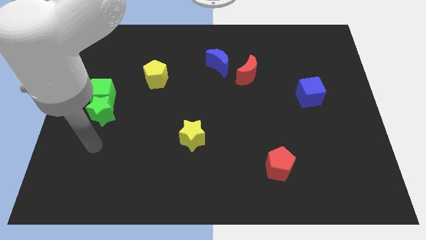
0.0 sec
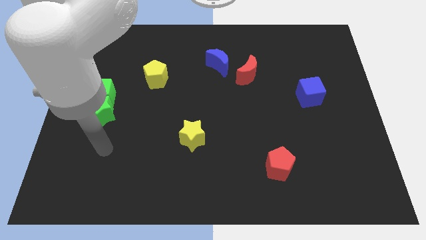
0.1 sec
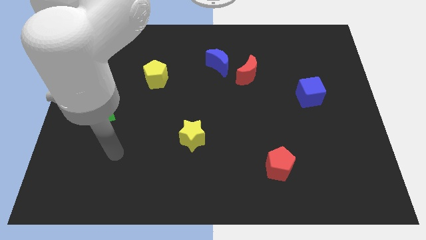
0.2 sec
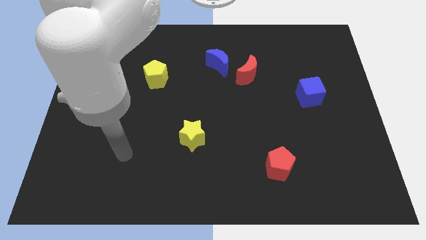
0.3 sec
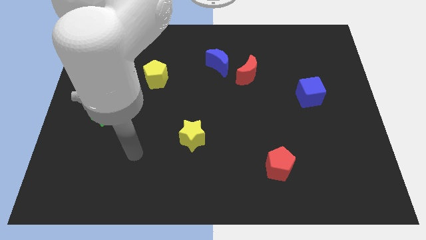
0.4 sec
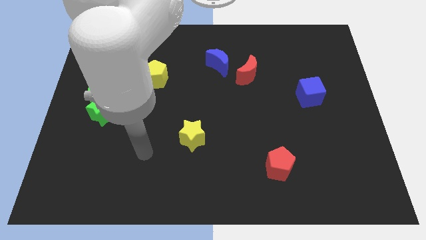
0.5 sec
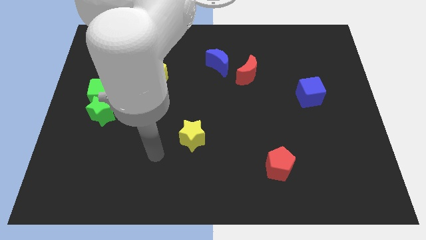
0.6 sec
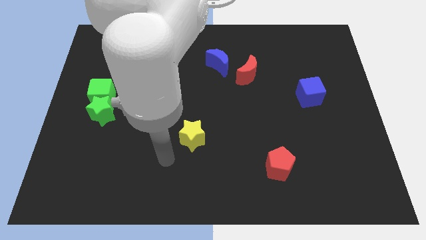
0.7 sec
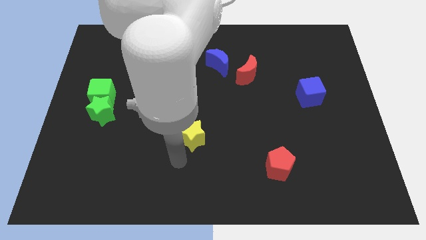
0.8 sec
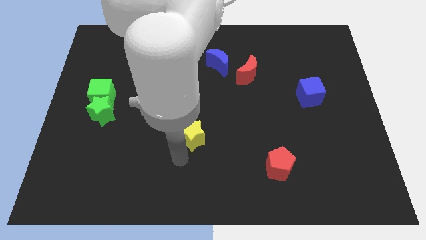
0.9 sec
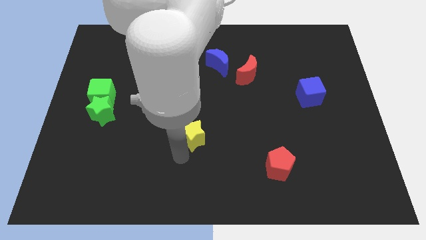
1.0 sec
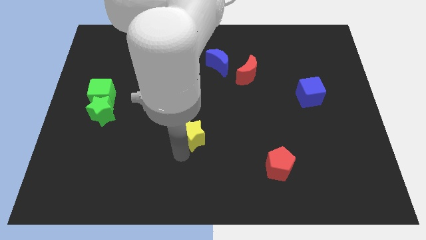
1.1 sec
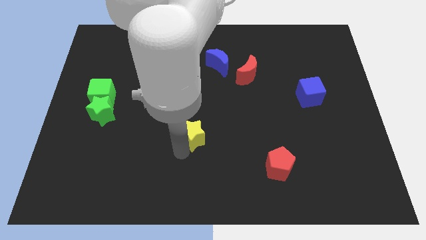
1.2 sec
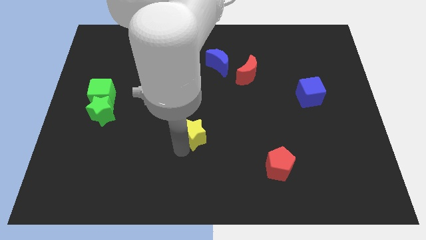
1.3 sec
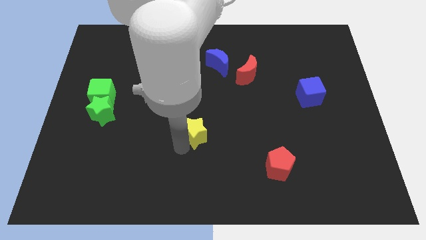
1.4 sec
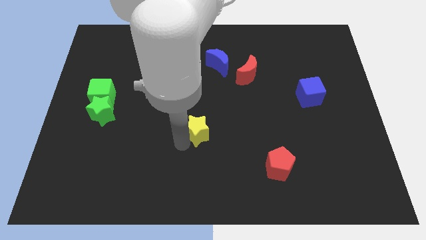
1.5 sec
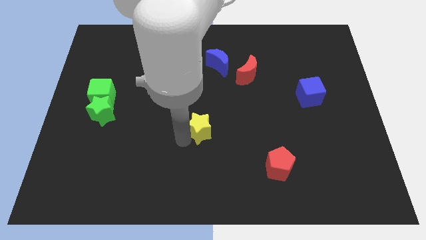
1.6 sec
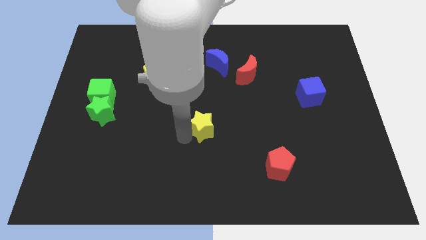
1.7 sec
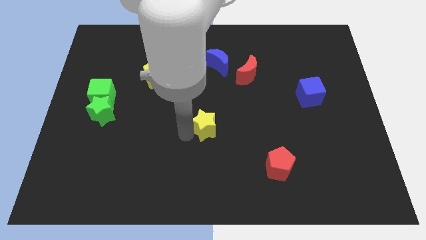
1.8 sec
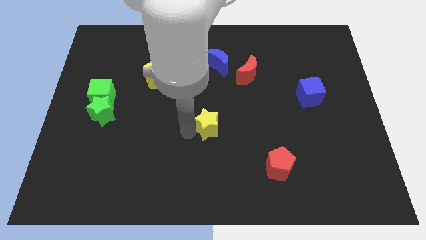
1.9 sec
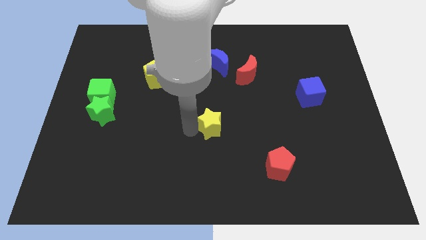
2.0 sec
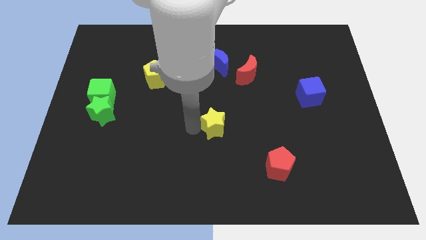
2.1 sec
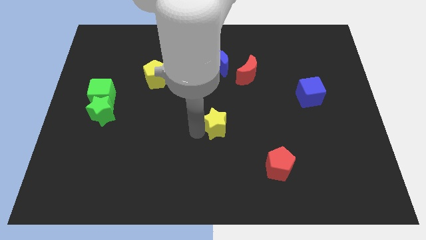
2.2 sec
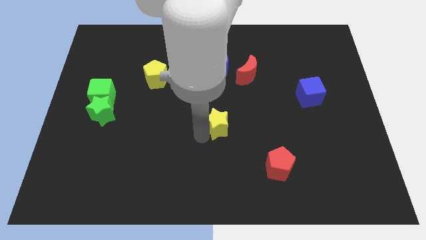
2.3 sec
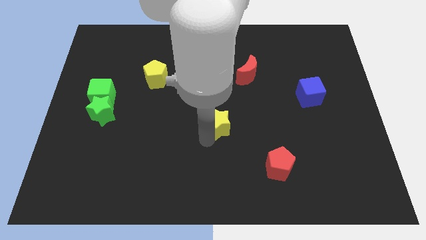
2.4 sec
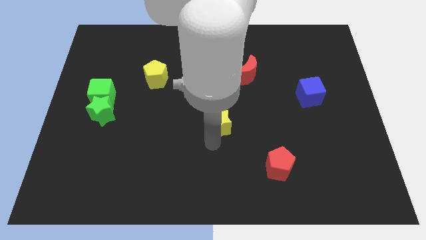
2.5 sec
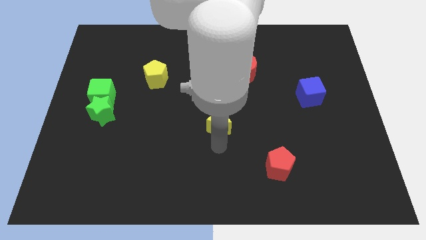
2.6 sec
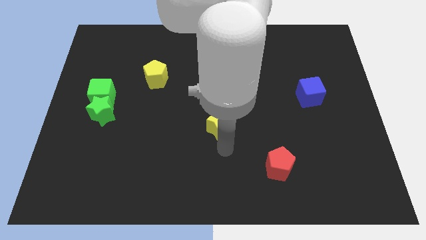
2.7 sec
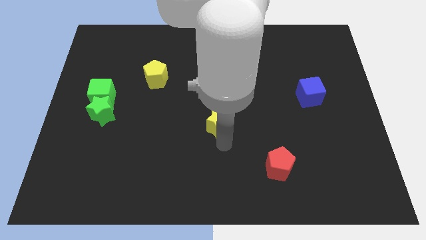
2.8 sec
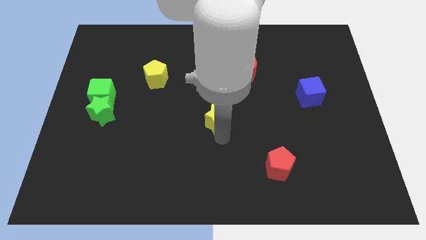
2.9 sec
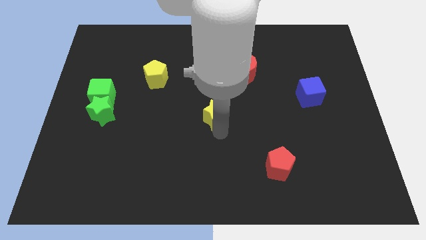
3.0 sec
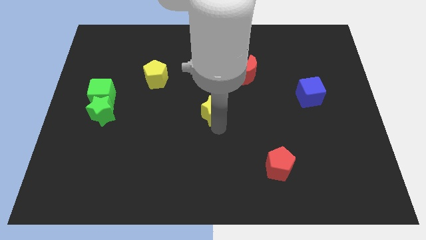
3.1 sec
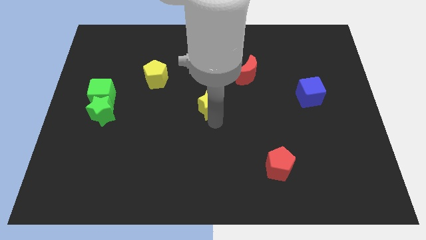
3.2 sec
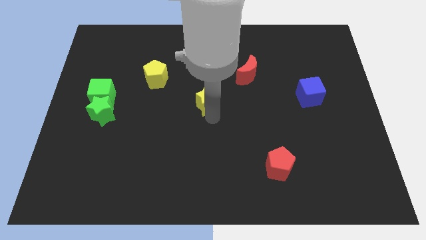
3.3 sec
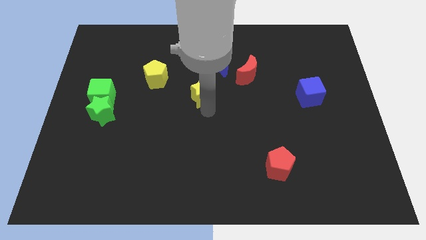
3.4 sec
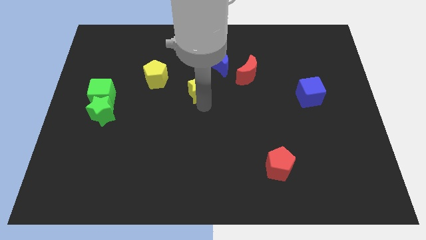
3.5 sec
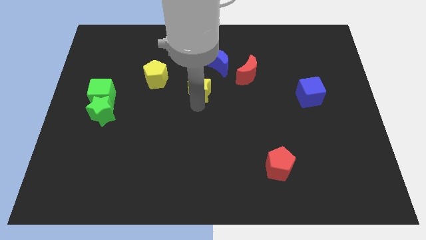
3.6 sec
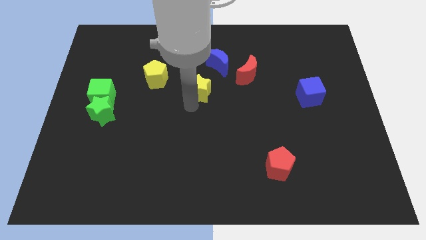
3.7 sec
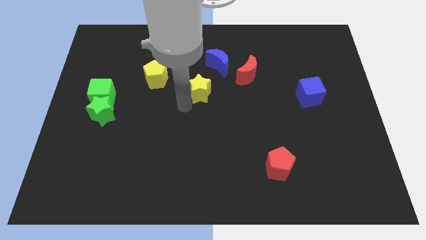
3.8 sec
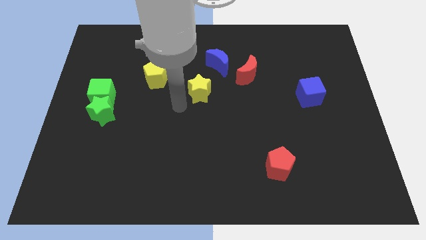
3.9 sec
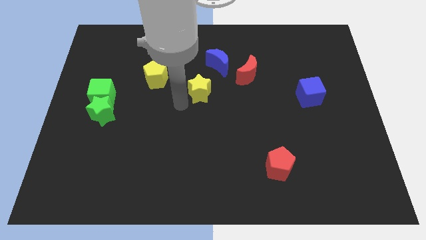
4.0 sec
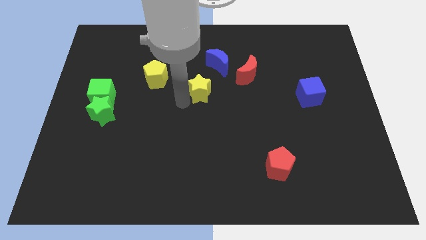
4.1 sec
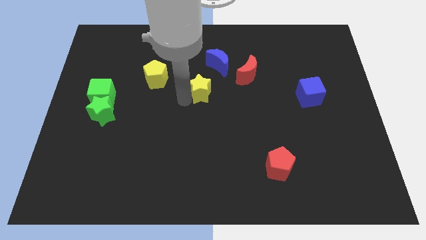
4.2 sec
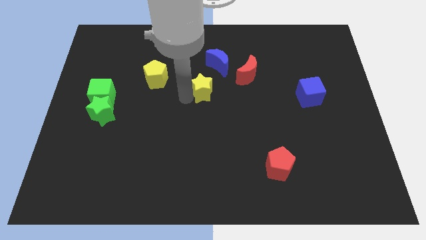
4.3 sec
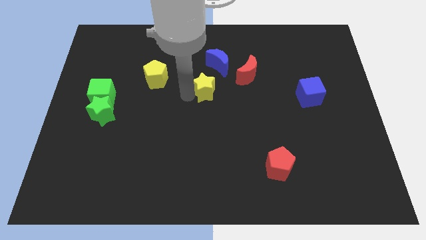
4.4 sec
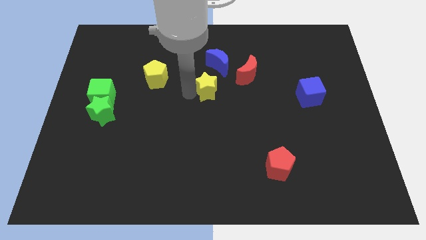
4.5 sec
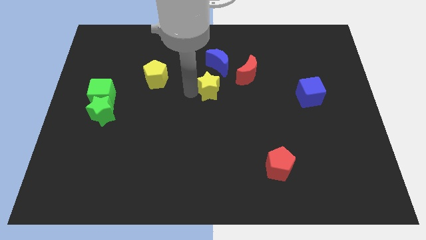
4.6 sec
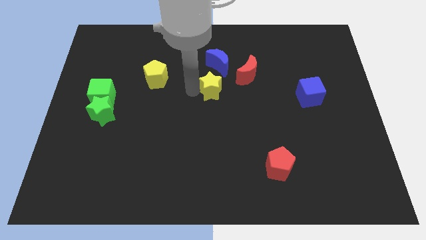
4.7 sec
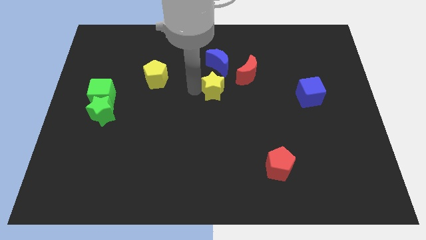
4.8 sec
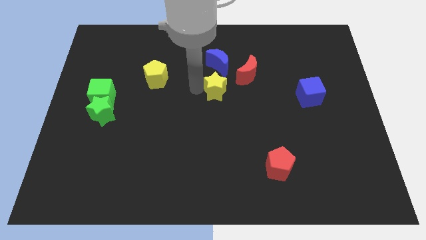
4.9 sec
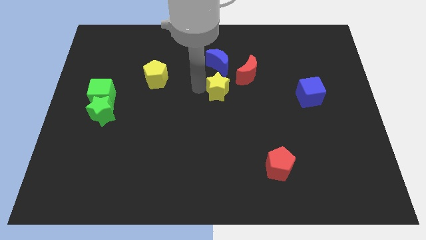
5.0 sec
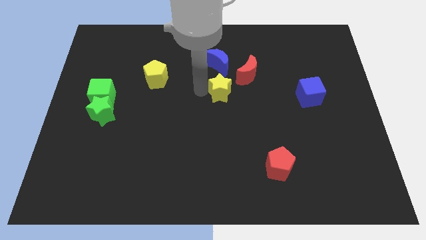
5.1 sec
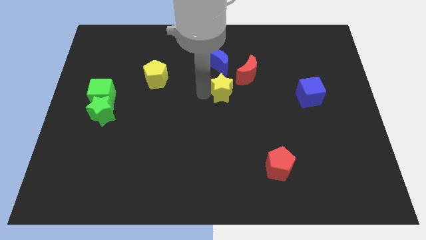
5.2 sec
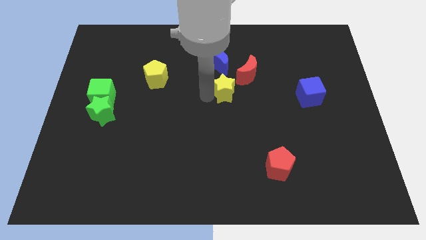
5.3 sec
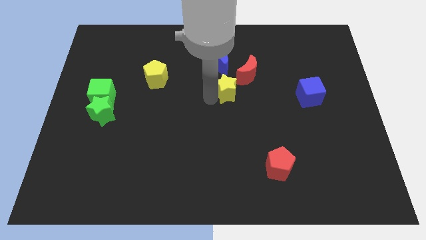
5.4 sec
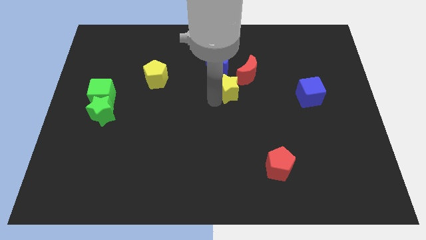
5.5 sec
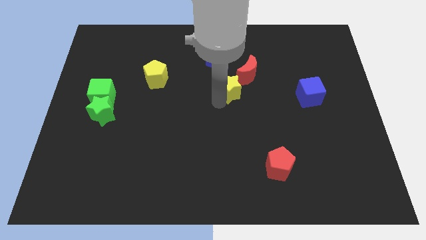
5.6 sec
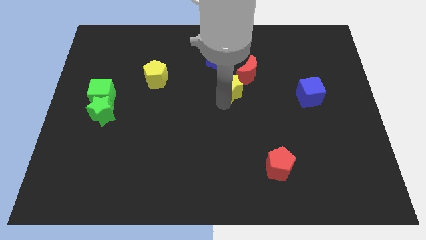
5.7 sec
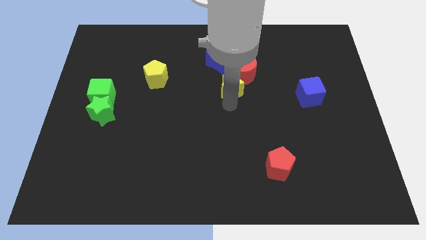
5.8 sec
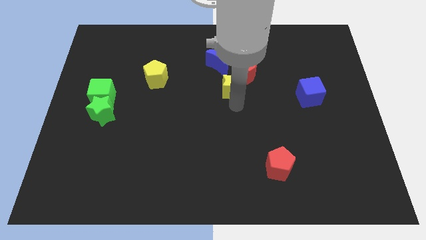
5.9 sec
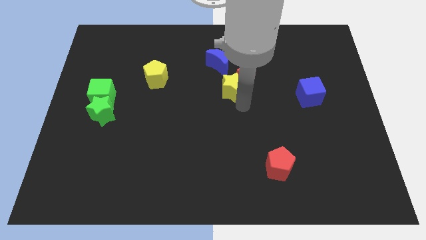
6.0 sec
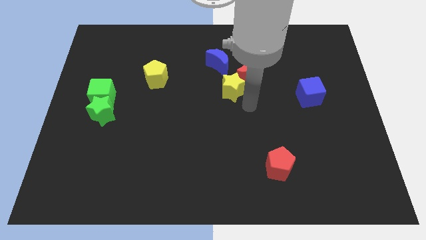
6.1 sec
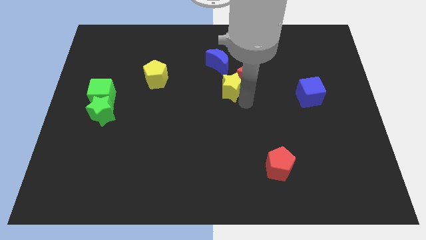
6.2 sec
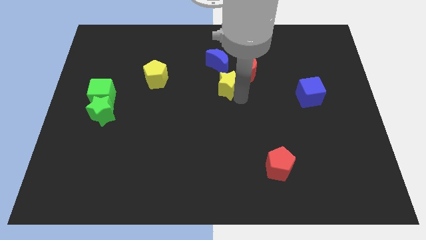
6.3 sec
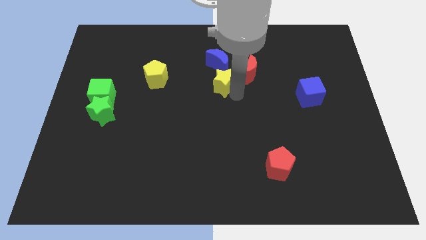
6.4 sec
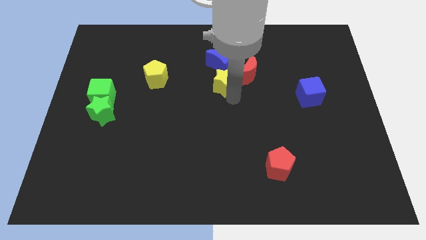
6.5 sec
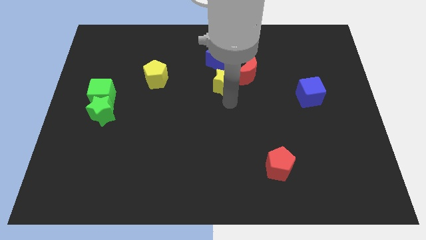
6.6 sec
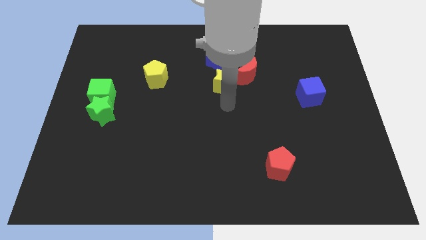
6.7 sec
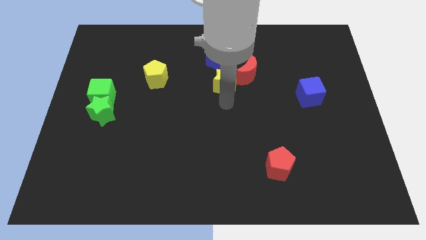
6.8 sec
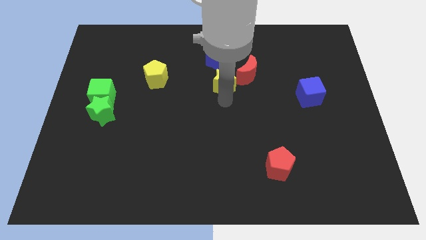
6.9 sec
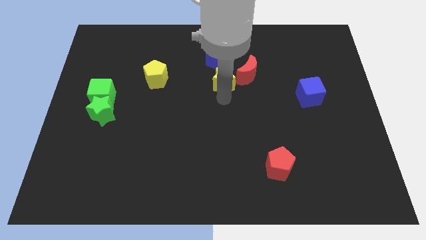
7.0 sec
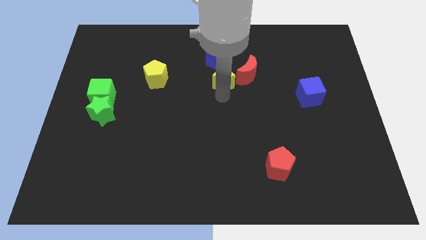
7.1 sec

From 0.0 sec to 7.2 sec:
put the yellow star towards the blue moon

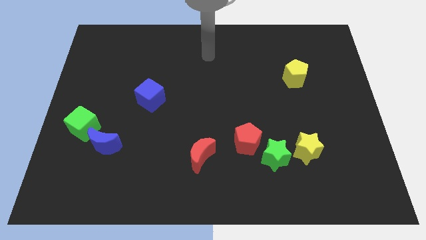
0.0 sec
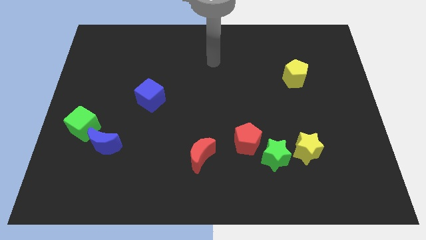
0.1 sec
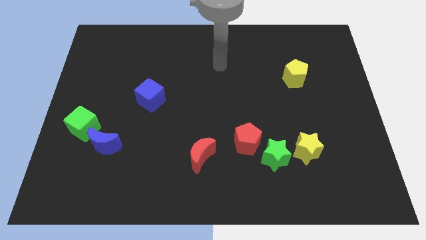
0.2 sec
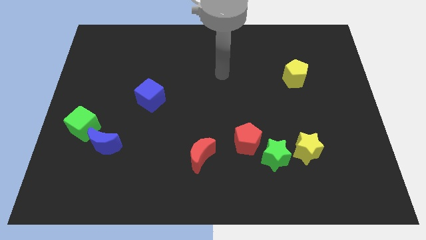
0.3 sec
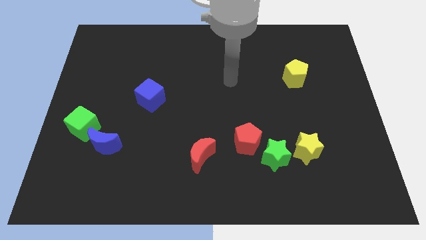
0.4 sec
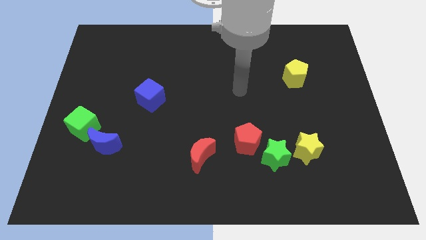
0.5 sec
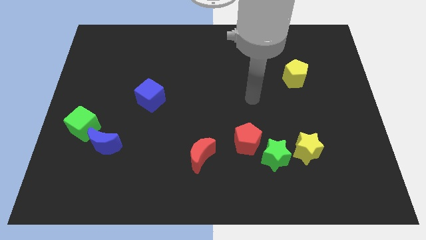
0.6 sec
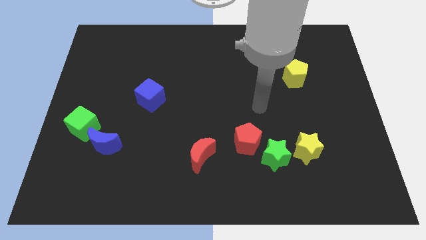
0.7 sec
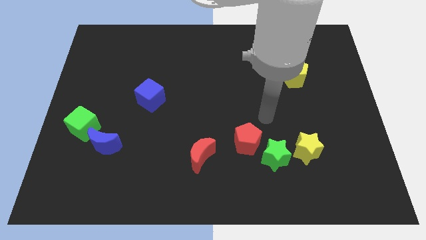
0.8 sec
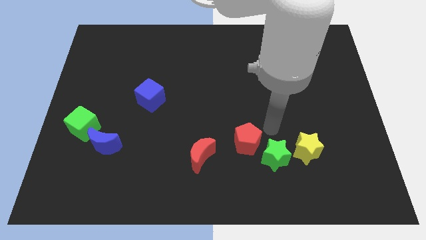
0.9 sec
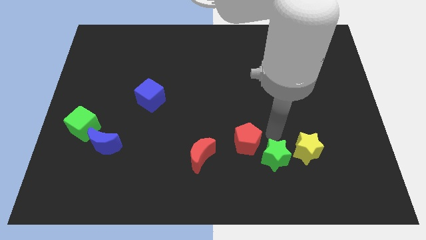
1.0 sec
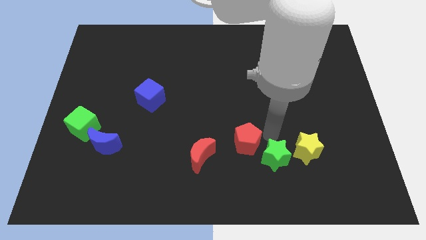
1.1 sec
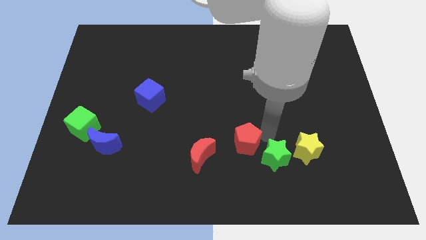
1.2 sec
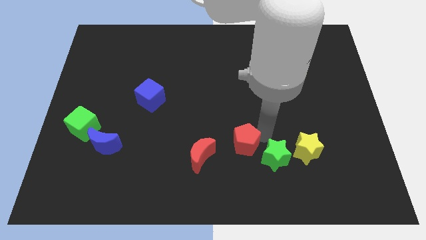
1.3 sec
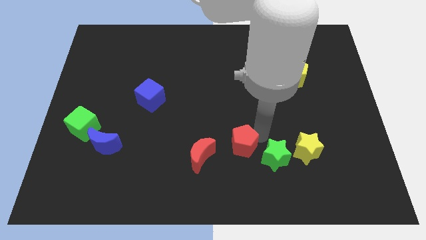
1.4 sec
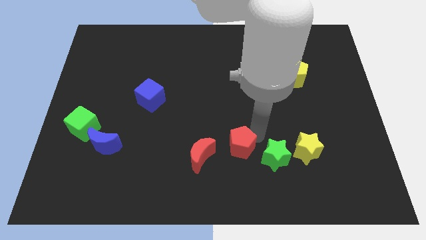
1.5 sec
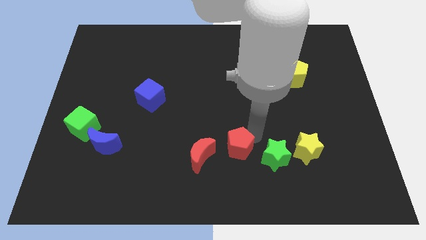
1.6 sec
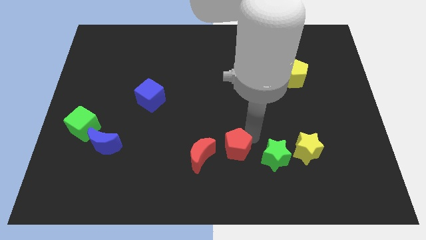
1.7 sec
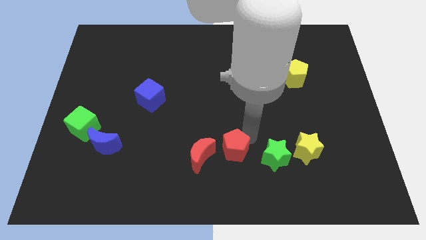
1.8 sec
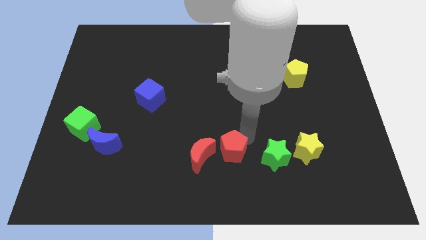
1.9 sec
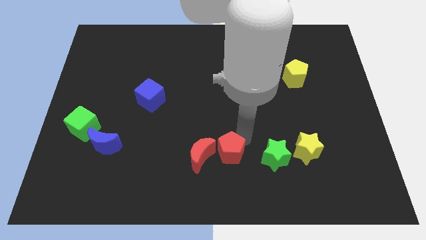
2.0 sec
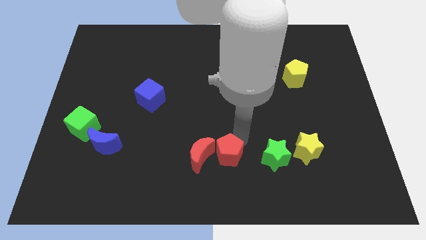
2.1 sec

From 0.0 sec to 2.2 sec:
slide the red pentagon next to the red moon
